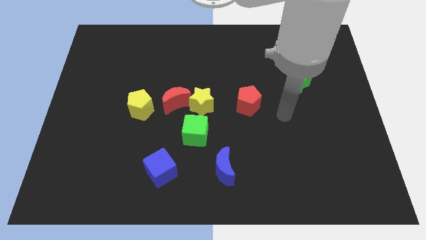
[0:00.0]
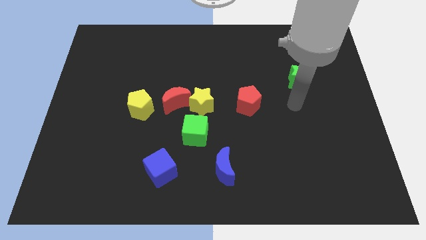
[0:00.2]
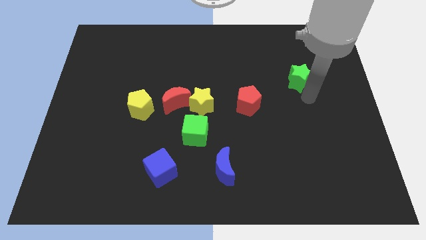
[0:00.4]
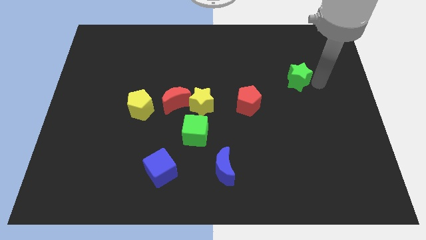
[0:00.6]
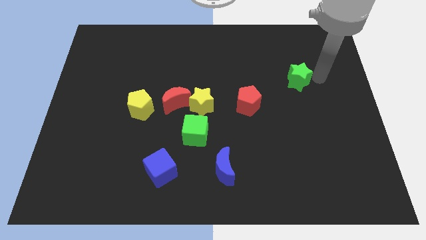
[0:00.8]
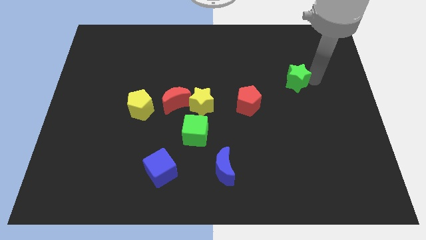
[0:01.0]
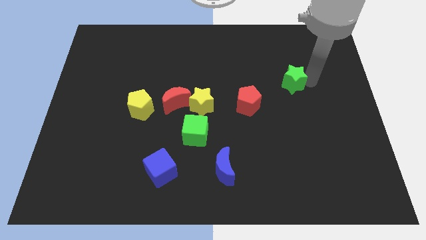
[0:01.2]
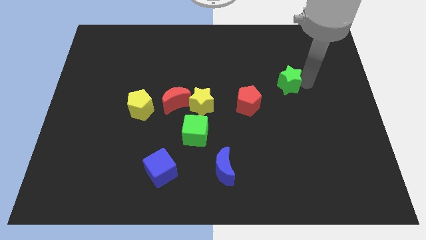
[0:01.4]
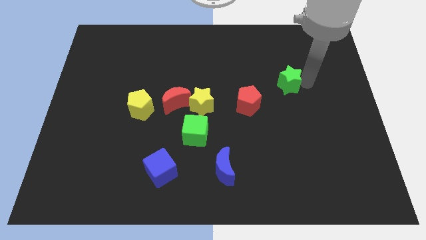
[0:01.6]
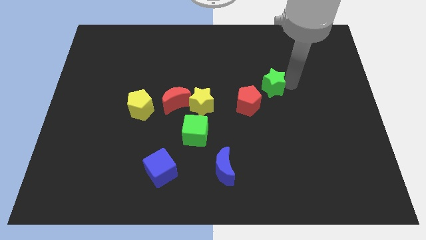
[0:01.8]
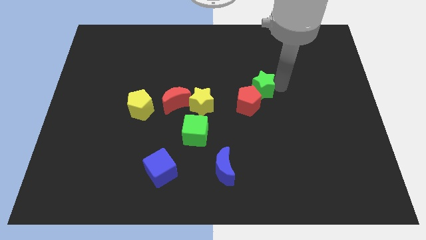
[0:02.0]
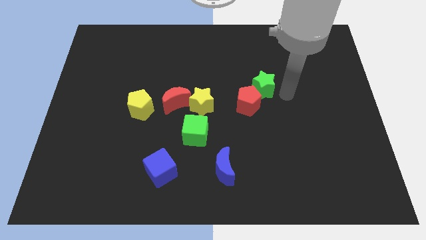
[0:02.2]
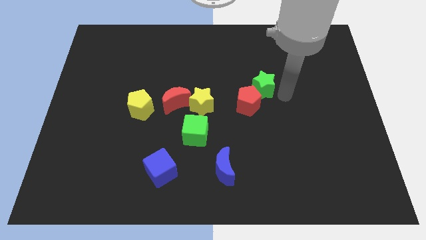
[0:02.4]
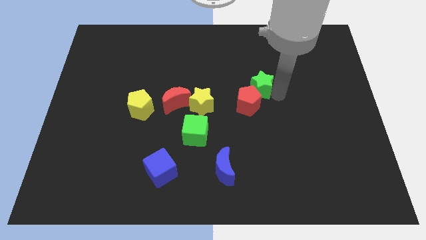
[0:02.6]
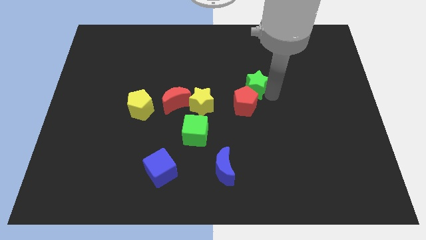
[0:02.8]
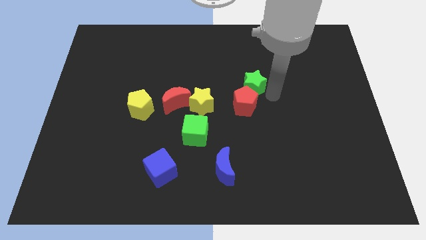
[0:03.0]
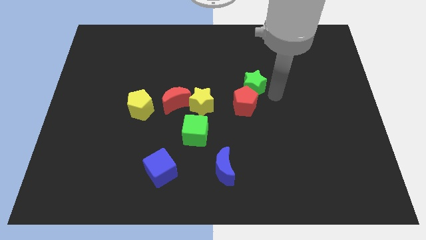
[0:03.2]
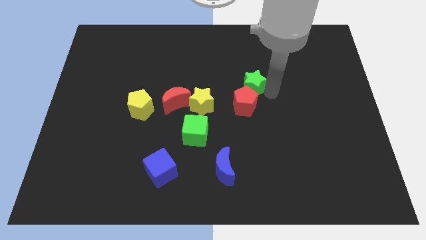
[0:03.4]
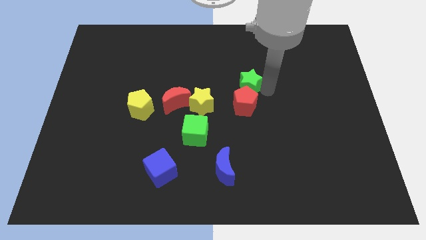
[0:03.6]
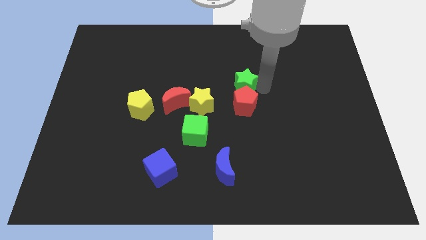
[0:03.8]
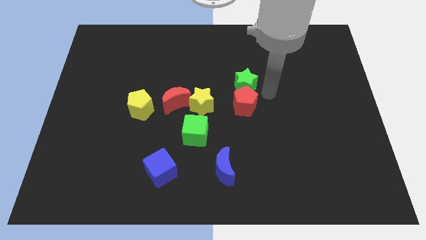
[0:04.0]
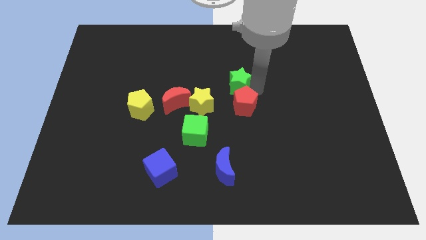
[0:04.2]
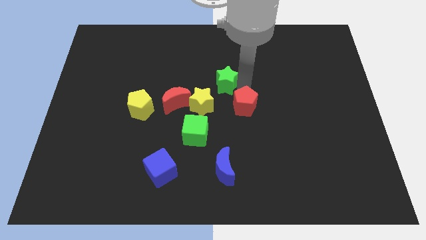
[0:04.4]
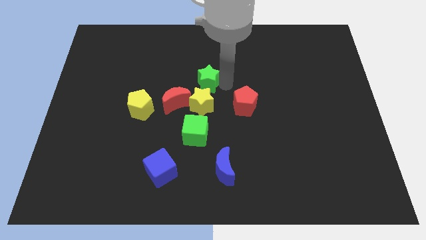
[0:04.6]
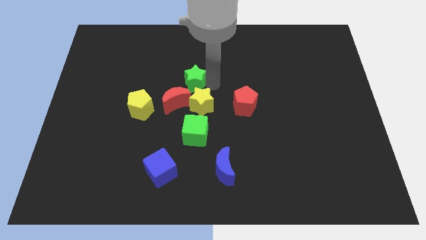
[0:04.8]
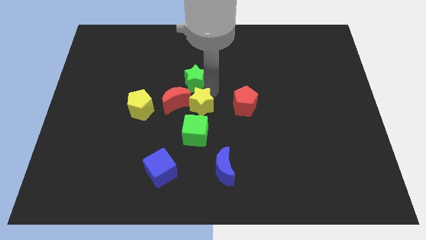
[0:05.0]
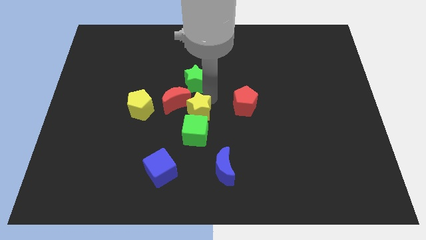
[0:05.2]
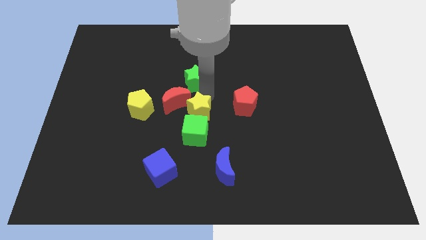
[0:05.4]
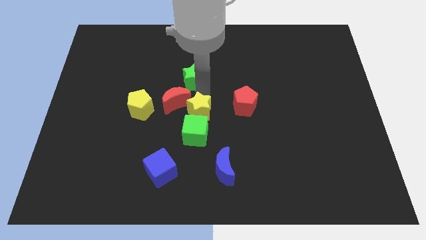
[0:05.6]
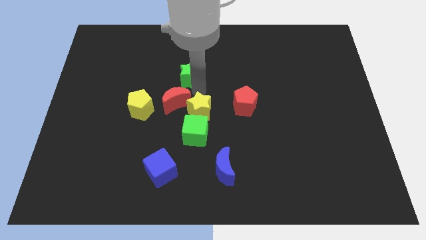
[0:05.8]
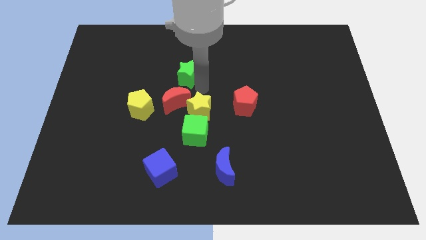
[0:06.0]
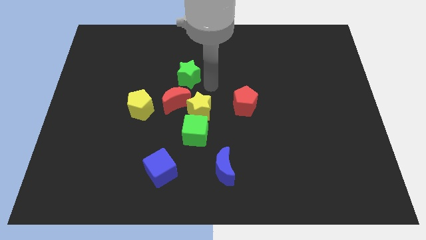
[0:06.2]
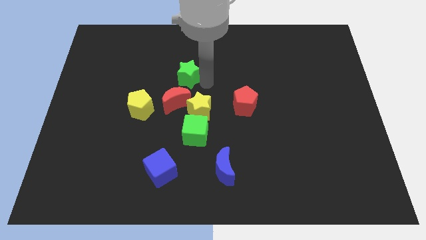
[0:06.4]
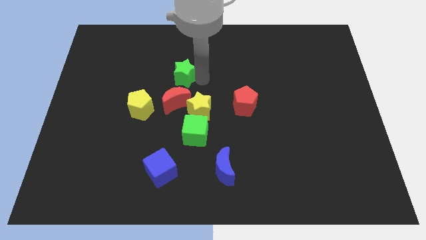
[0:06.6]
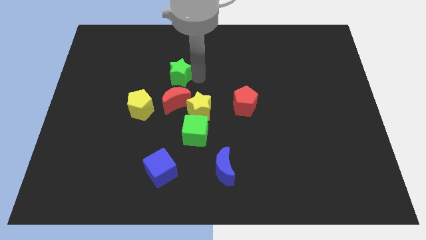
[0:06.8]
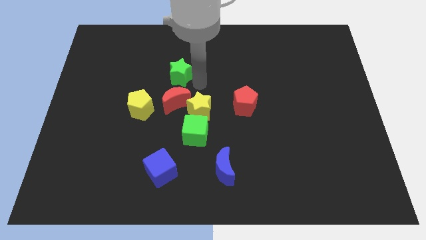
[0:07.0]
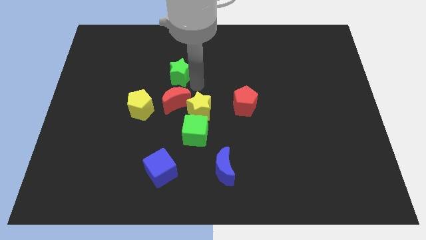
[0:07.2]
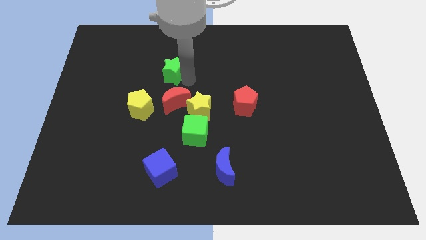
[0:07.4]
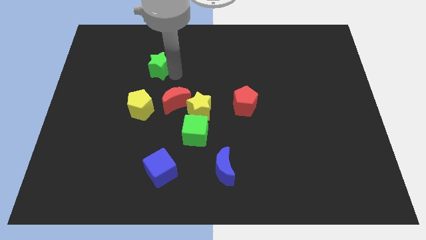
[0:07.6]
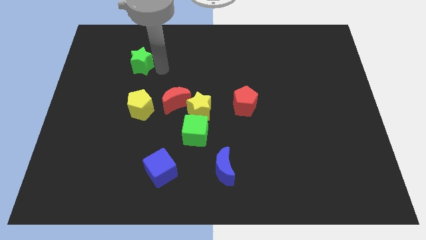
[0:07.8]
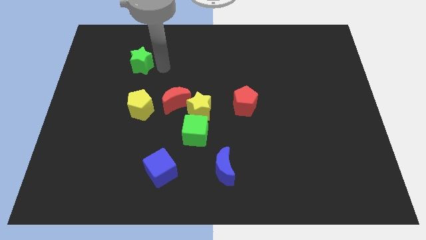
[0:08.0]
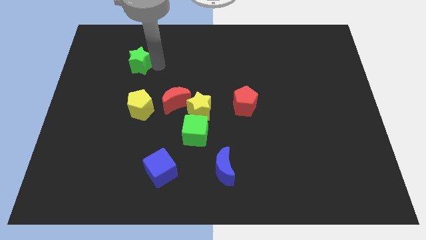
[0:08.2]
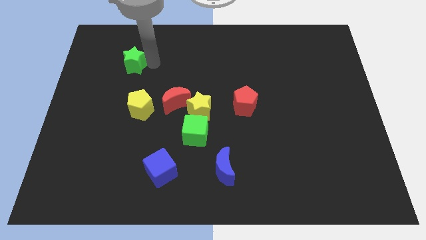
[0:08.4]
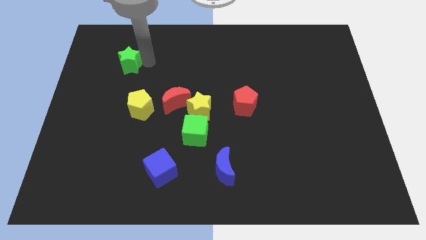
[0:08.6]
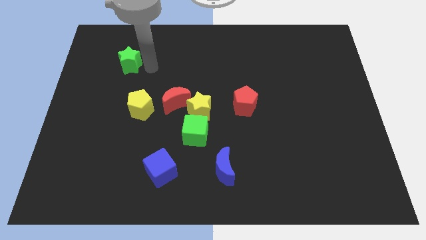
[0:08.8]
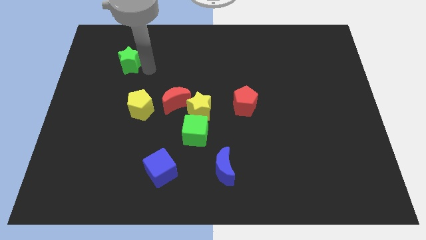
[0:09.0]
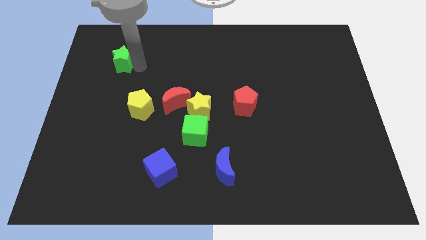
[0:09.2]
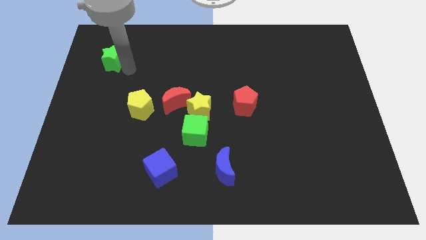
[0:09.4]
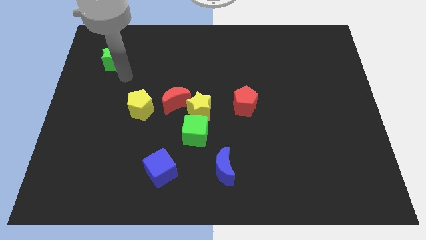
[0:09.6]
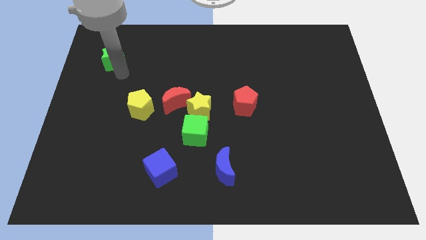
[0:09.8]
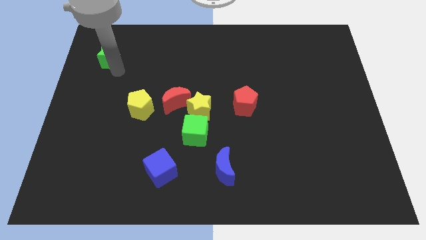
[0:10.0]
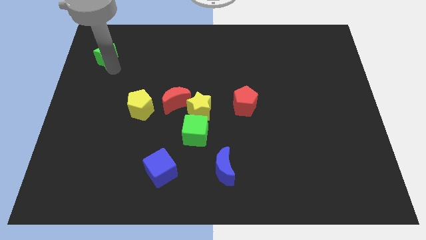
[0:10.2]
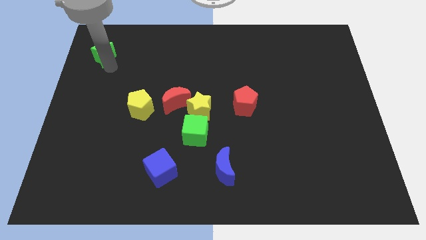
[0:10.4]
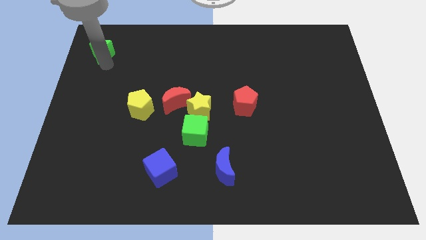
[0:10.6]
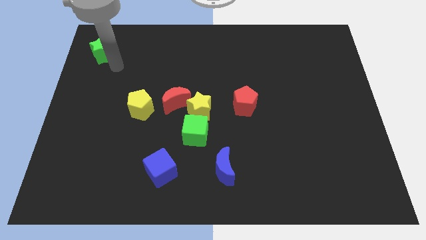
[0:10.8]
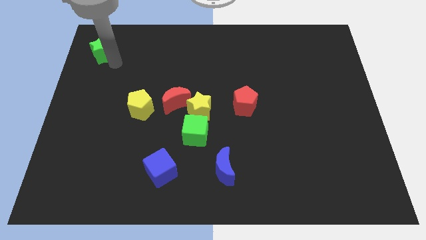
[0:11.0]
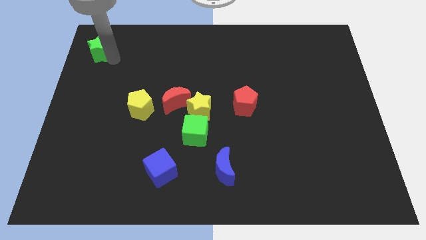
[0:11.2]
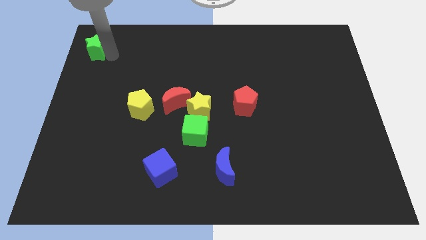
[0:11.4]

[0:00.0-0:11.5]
slide the green star to the top left corner
